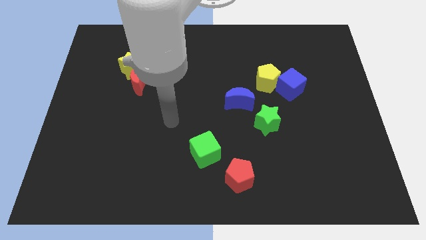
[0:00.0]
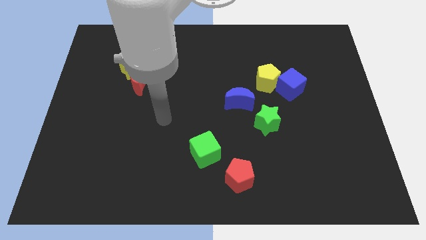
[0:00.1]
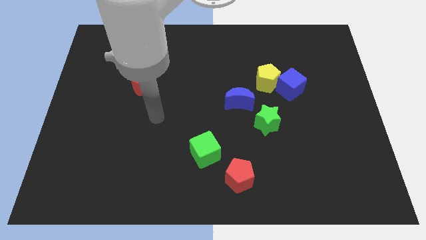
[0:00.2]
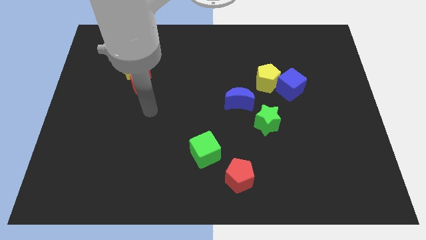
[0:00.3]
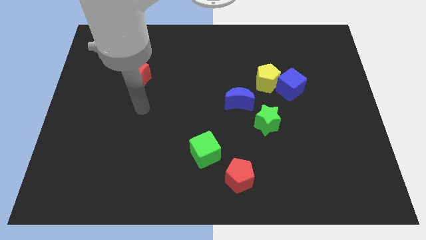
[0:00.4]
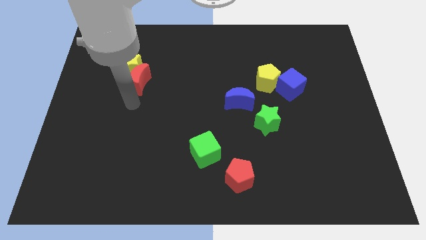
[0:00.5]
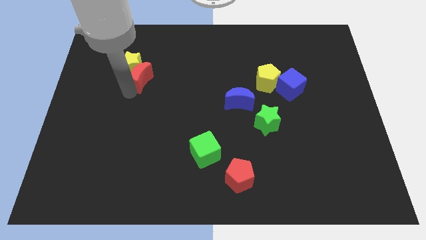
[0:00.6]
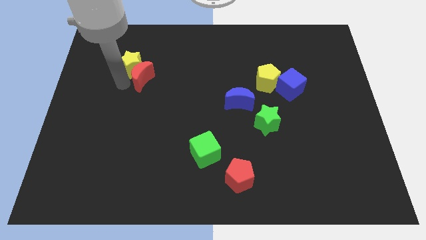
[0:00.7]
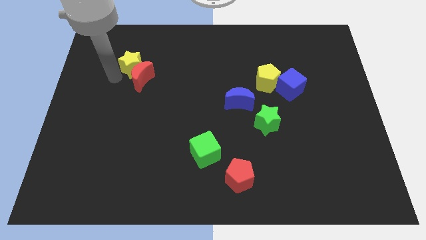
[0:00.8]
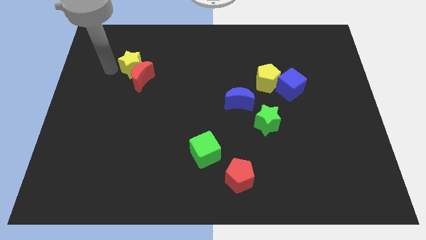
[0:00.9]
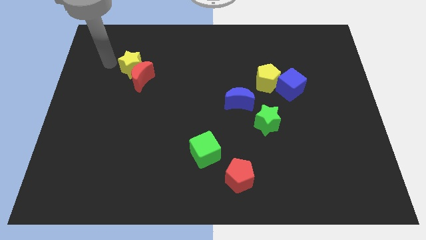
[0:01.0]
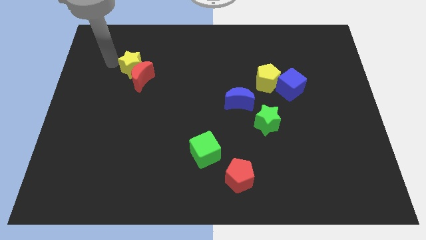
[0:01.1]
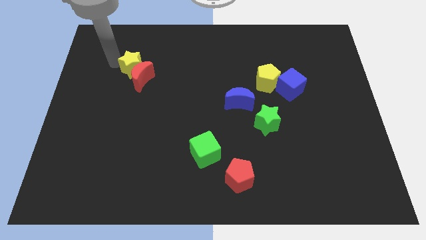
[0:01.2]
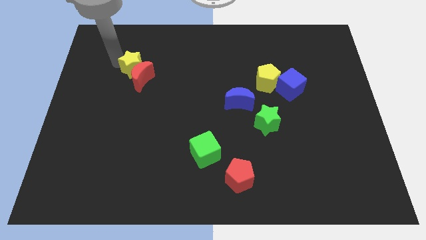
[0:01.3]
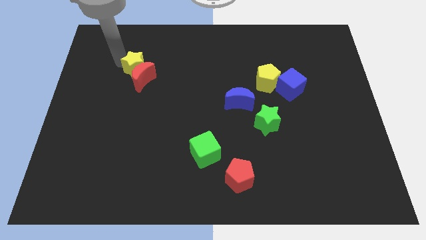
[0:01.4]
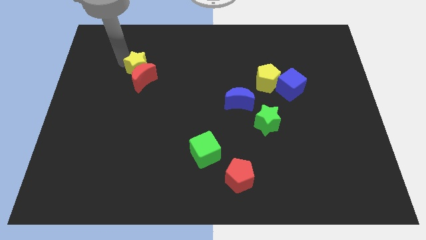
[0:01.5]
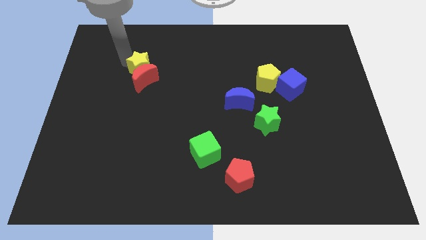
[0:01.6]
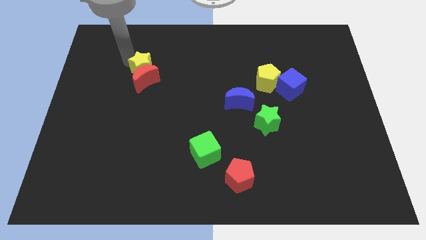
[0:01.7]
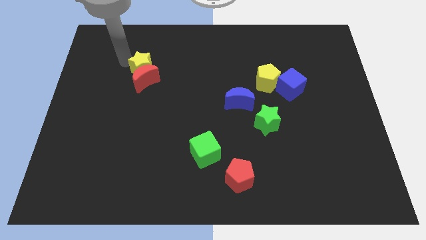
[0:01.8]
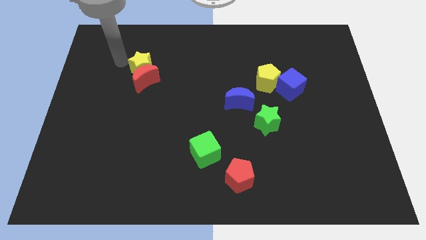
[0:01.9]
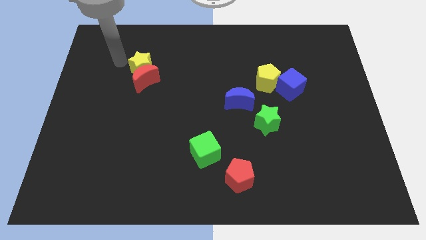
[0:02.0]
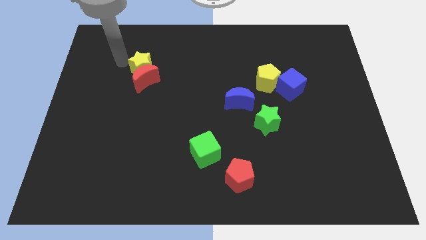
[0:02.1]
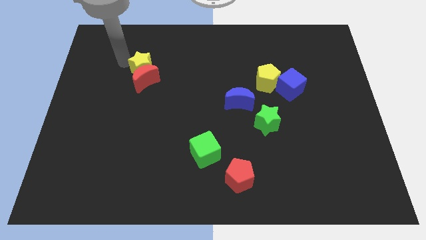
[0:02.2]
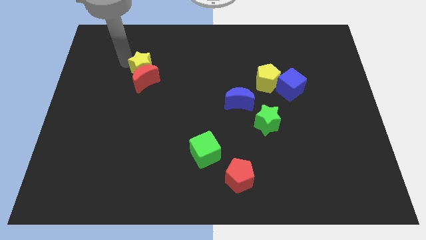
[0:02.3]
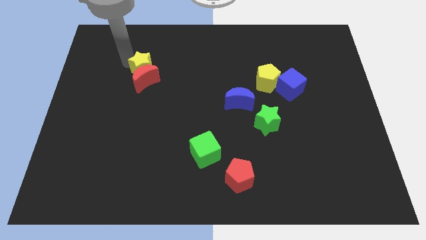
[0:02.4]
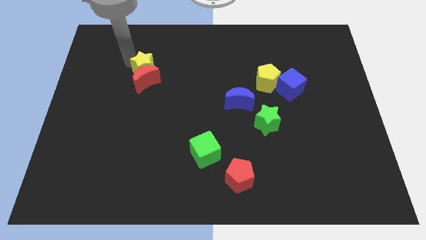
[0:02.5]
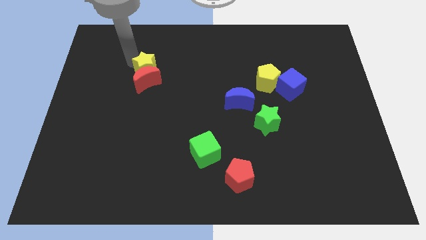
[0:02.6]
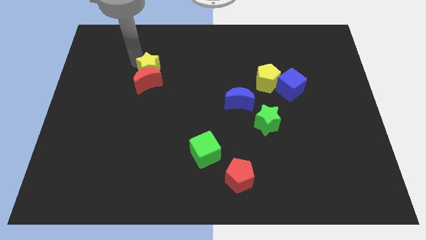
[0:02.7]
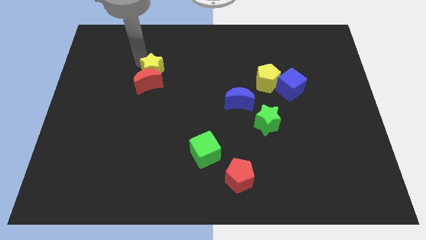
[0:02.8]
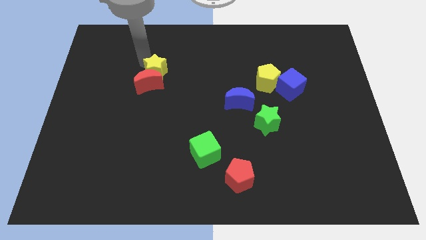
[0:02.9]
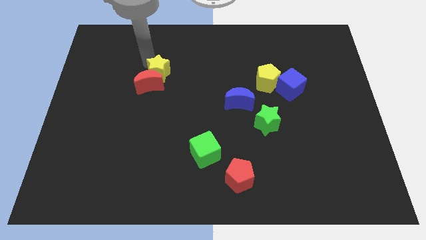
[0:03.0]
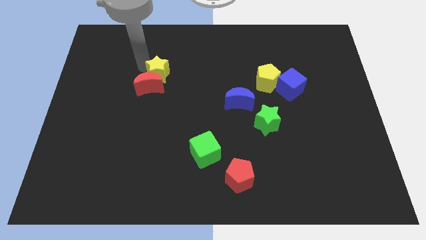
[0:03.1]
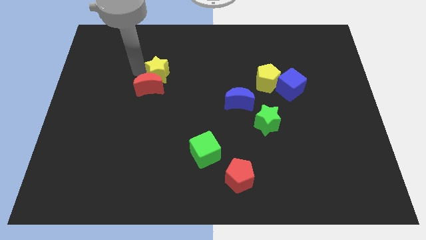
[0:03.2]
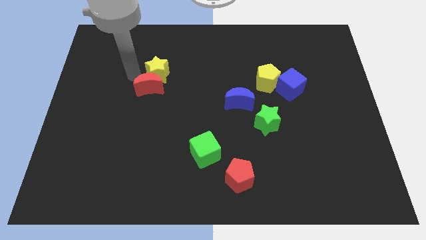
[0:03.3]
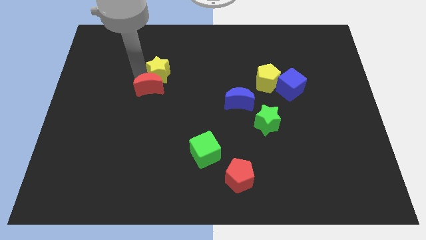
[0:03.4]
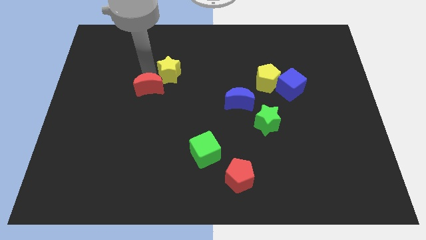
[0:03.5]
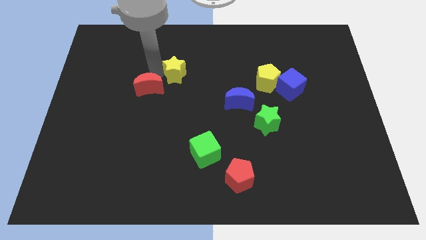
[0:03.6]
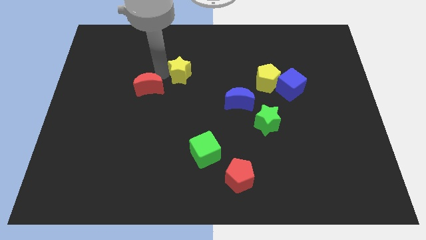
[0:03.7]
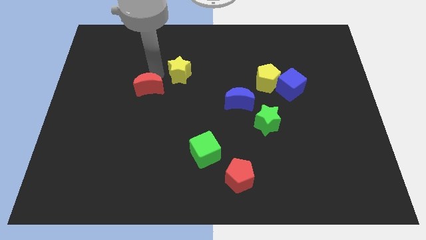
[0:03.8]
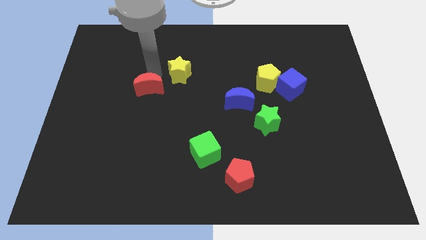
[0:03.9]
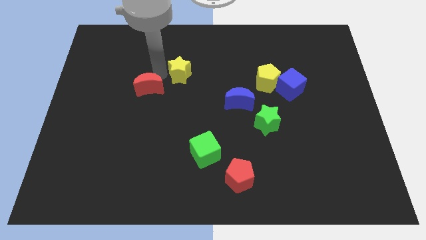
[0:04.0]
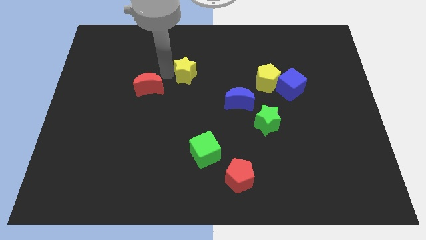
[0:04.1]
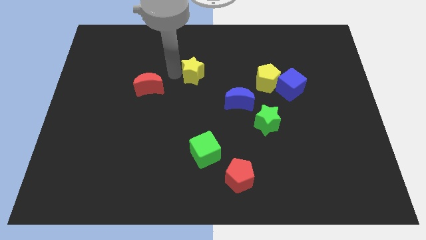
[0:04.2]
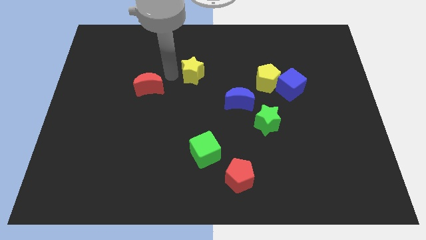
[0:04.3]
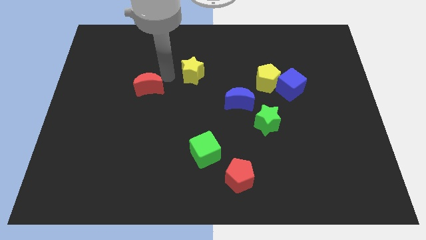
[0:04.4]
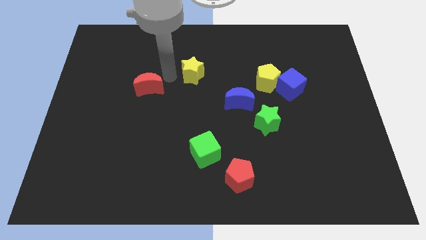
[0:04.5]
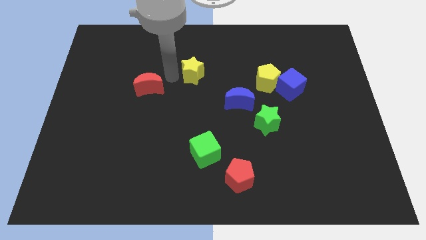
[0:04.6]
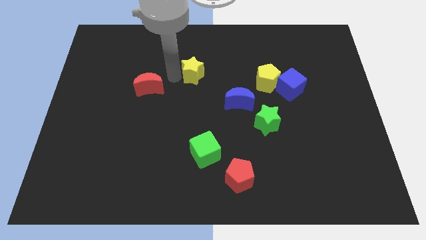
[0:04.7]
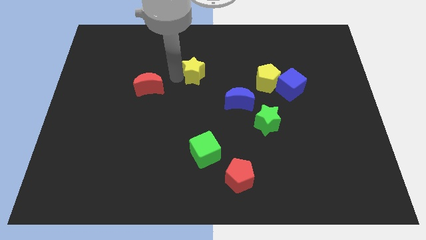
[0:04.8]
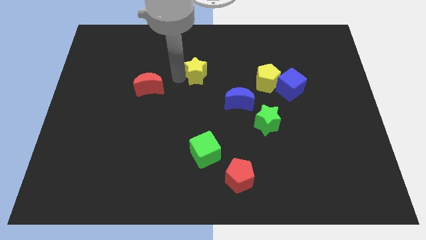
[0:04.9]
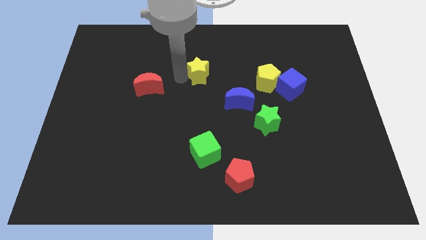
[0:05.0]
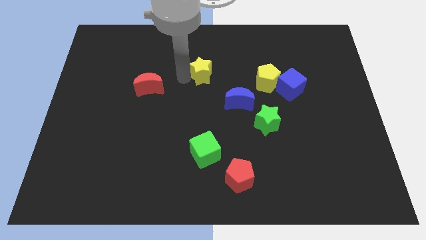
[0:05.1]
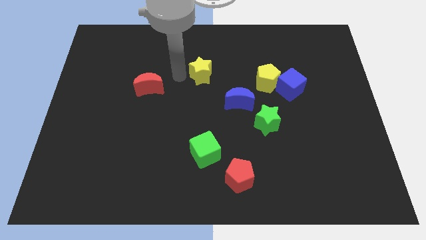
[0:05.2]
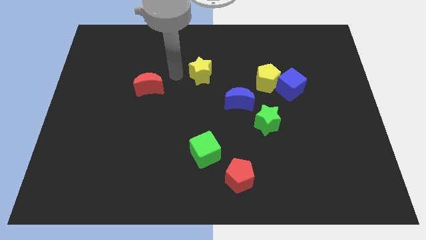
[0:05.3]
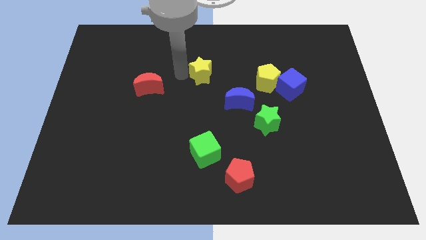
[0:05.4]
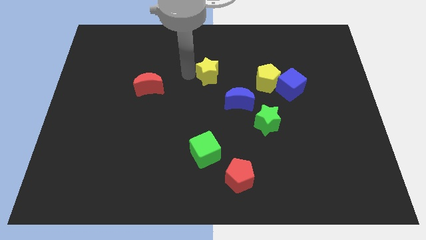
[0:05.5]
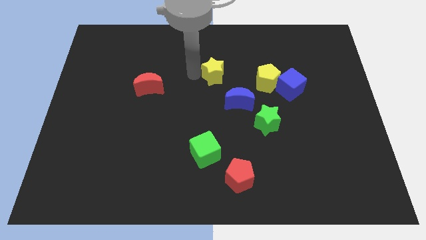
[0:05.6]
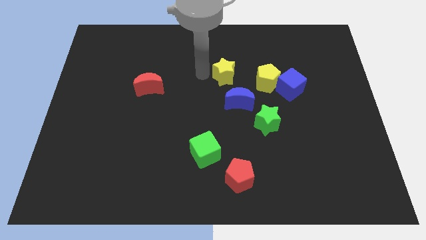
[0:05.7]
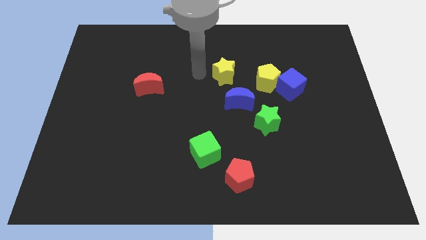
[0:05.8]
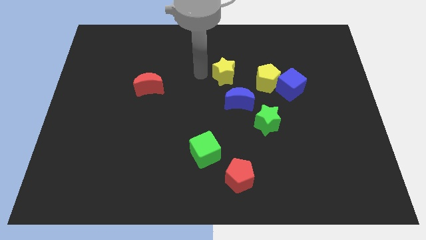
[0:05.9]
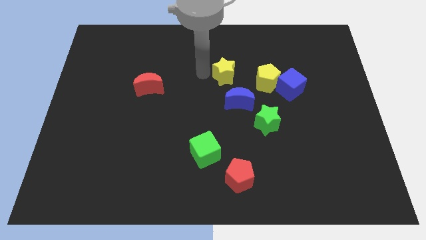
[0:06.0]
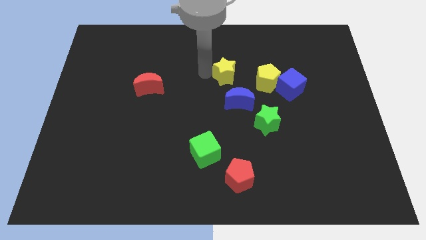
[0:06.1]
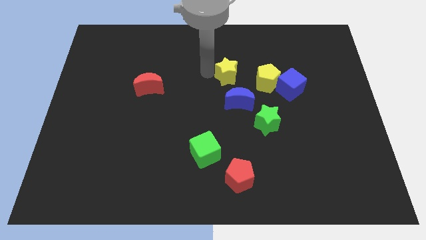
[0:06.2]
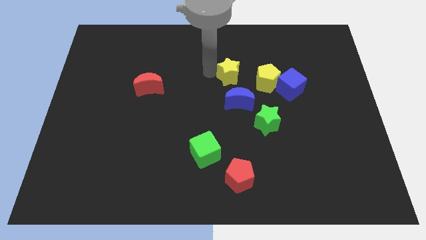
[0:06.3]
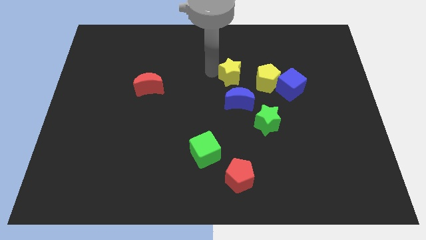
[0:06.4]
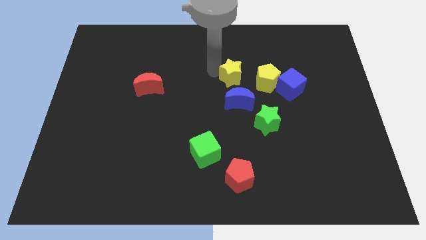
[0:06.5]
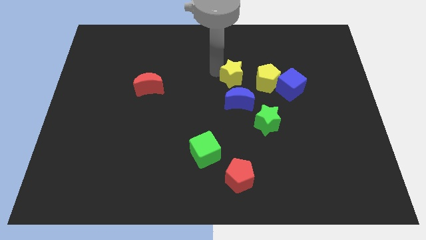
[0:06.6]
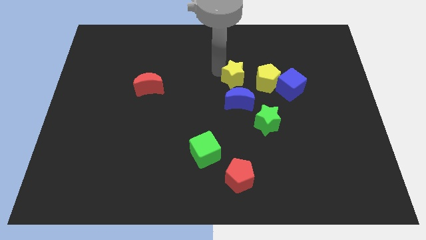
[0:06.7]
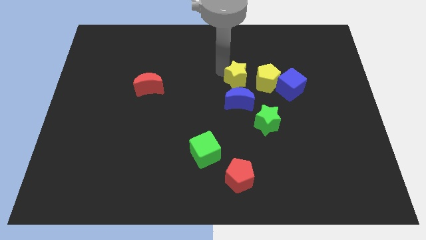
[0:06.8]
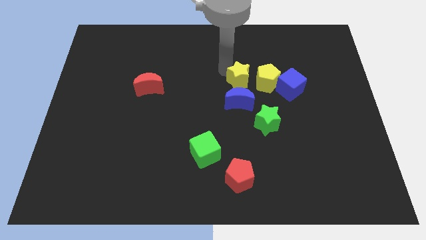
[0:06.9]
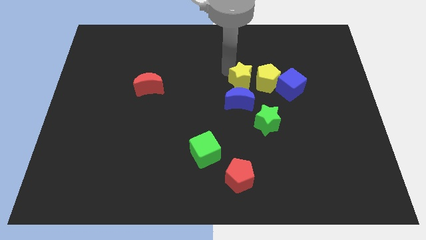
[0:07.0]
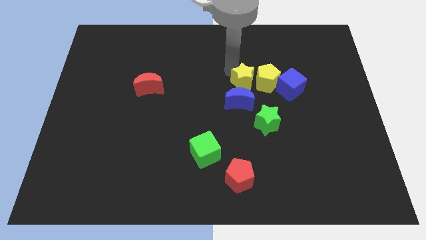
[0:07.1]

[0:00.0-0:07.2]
slide the yellow star to the yellow pentagon

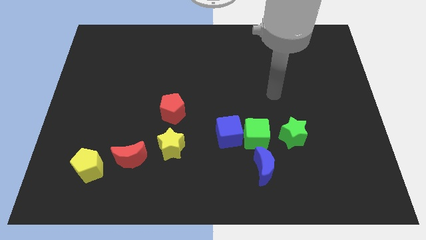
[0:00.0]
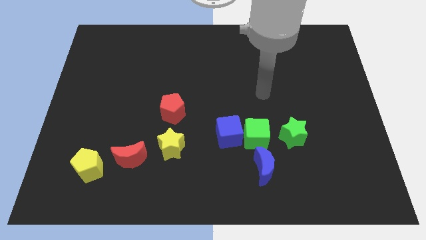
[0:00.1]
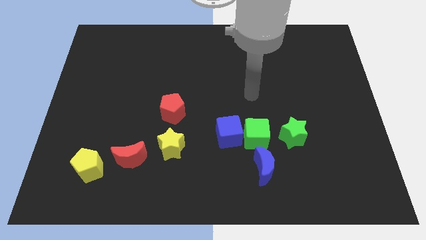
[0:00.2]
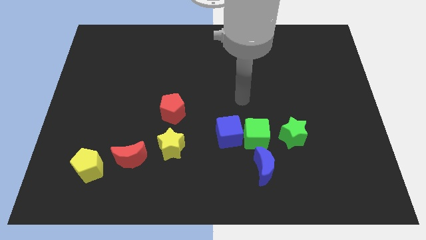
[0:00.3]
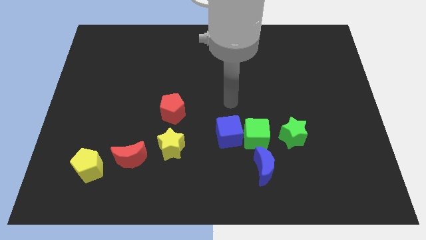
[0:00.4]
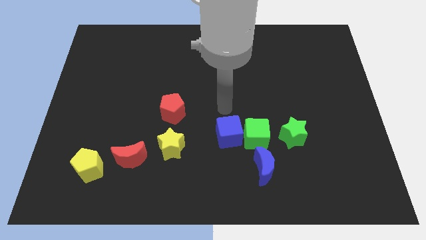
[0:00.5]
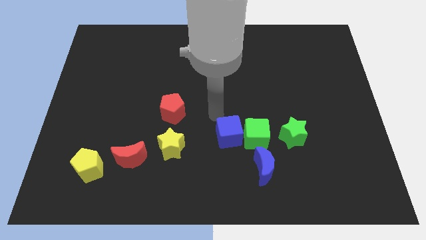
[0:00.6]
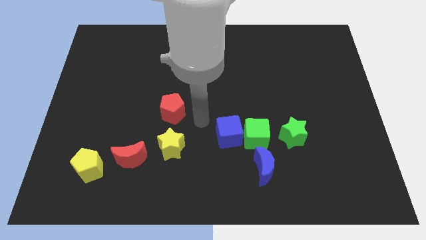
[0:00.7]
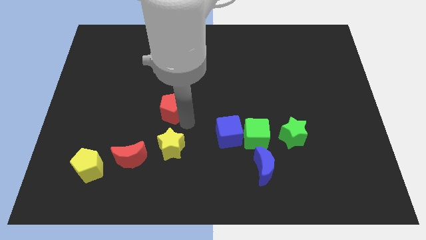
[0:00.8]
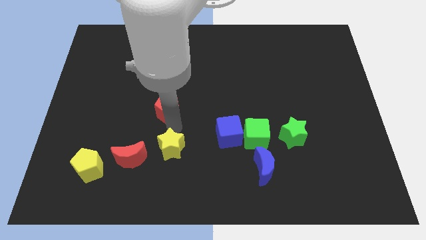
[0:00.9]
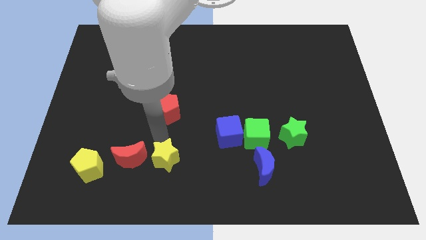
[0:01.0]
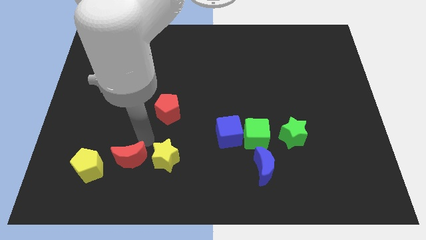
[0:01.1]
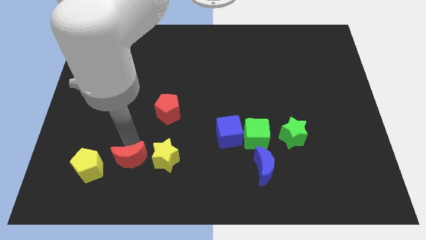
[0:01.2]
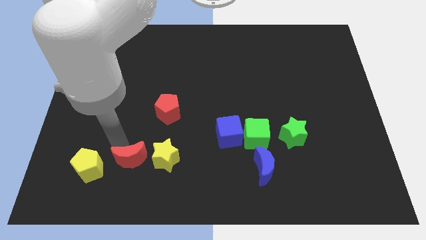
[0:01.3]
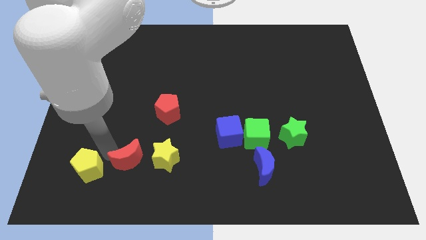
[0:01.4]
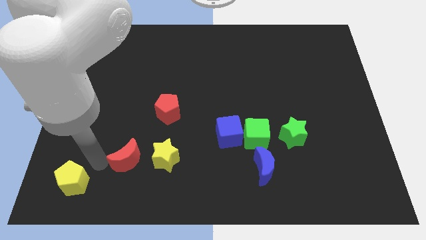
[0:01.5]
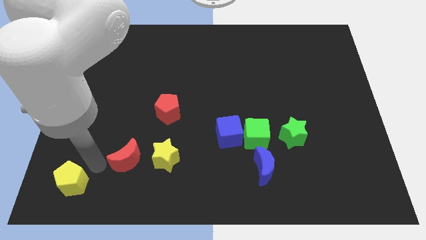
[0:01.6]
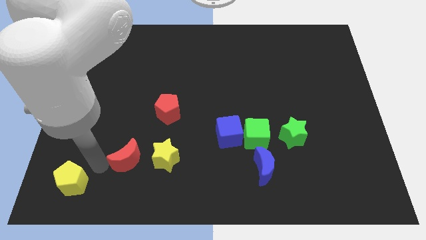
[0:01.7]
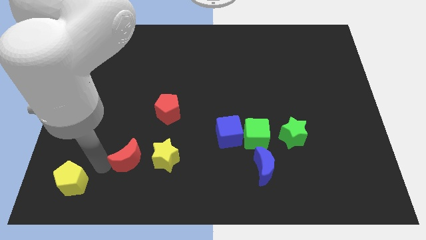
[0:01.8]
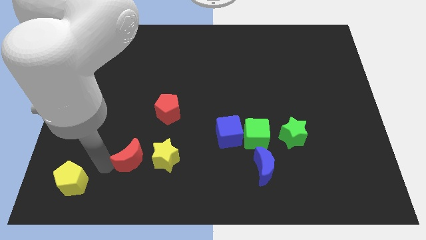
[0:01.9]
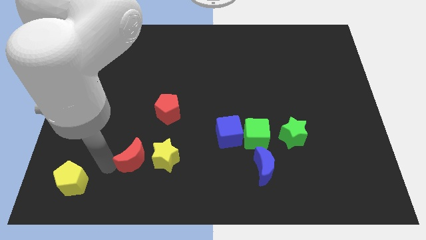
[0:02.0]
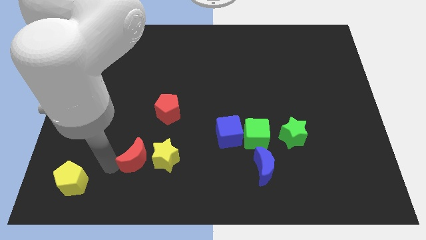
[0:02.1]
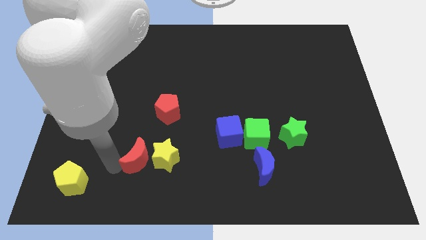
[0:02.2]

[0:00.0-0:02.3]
put the red moon next to the yellow star
